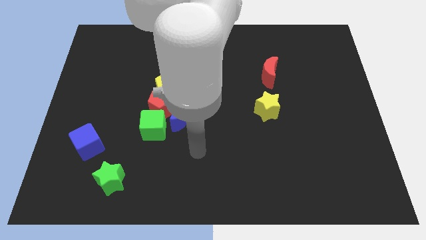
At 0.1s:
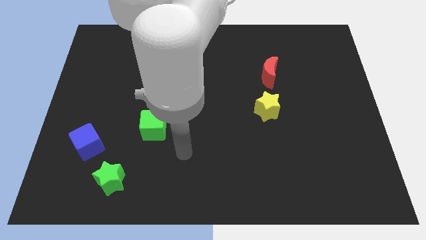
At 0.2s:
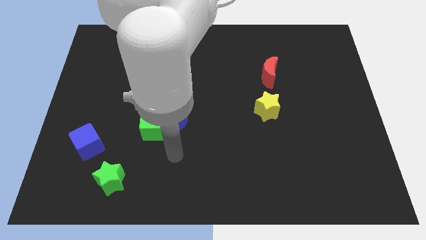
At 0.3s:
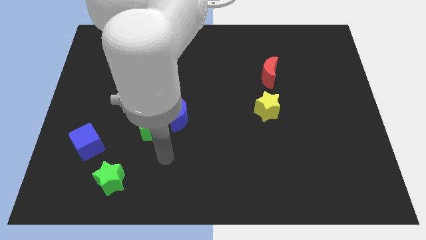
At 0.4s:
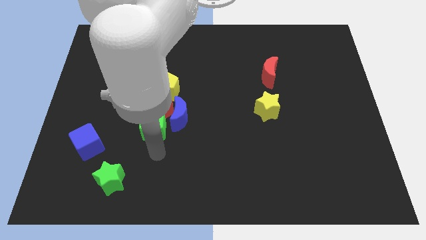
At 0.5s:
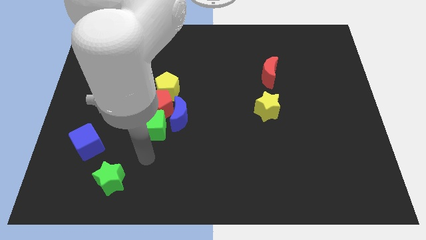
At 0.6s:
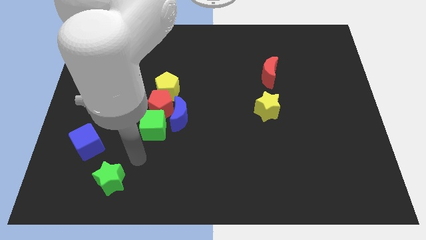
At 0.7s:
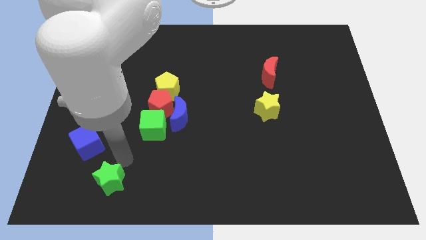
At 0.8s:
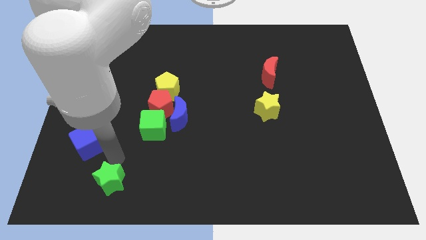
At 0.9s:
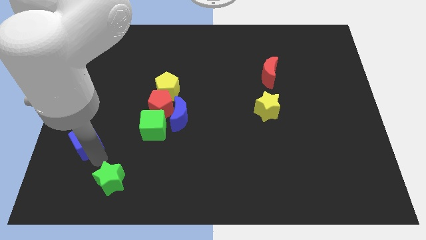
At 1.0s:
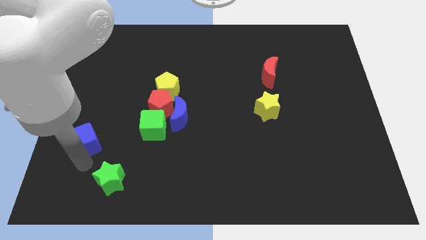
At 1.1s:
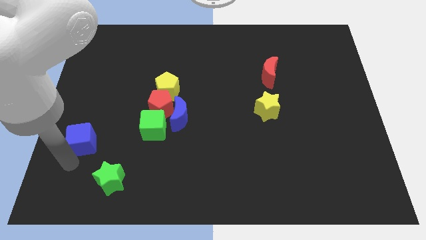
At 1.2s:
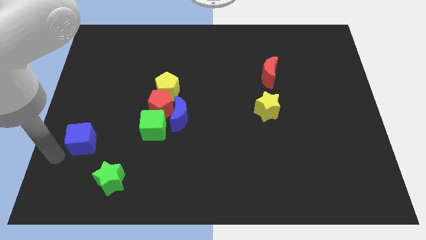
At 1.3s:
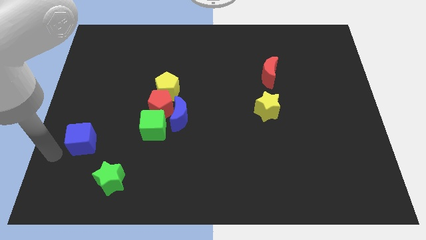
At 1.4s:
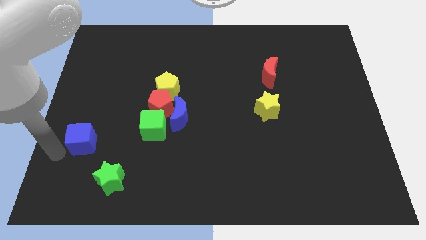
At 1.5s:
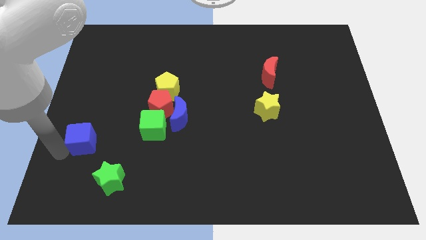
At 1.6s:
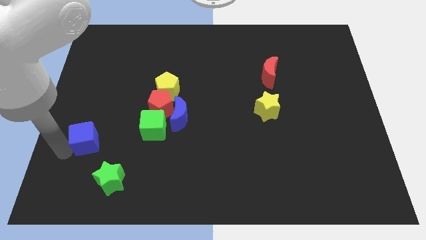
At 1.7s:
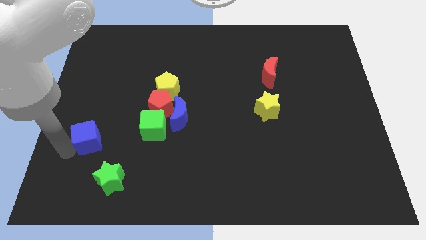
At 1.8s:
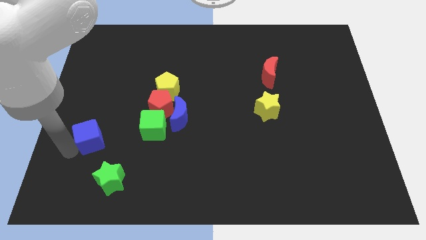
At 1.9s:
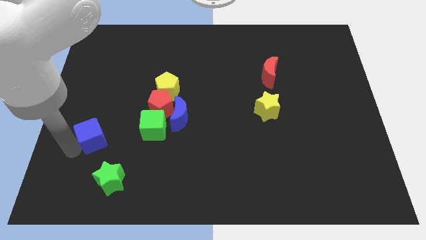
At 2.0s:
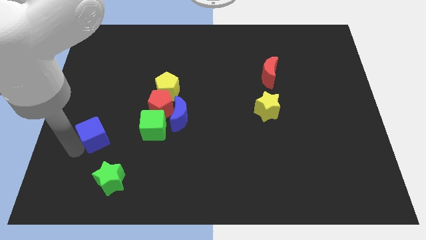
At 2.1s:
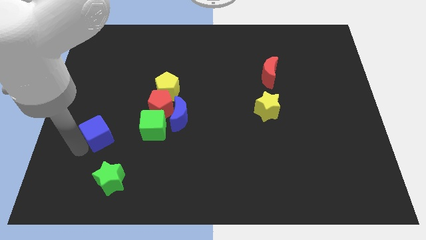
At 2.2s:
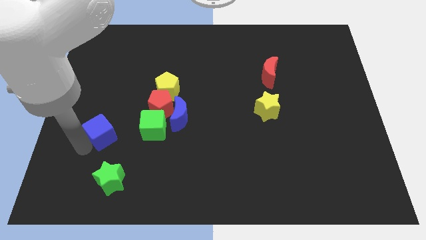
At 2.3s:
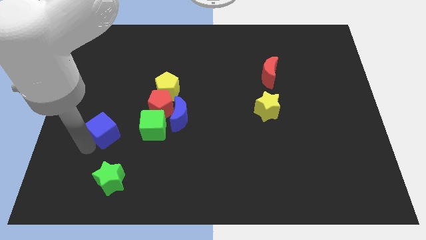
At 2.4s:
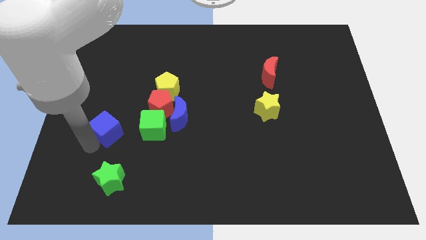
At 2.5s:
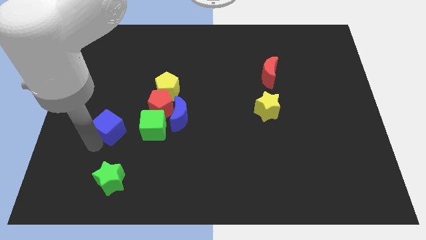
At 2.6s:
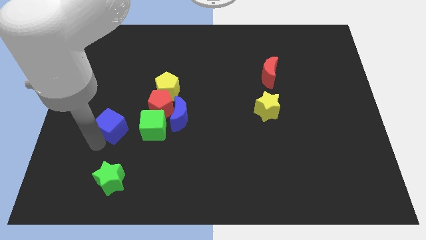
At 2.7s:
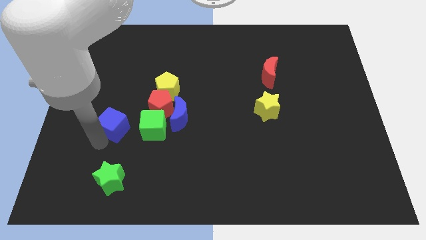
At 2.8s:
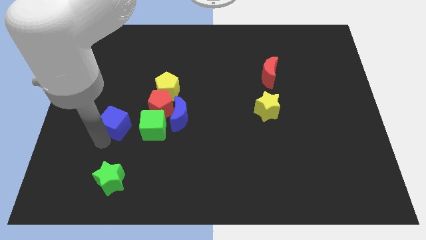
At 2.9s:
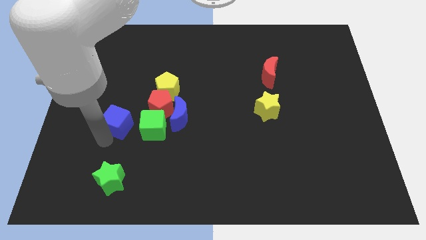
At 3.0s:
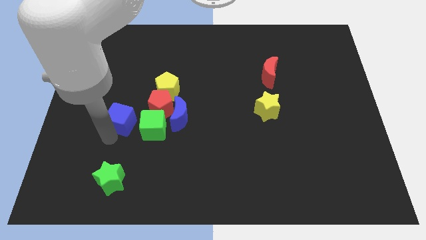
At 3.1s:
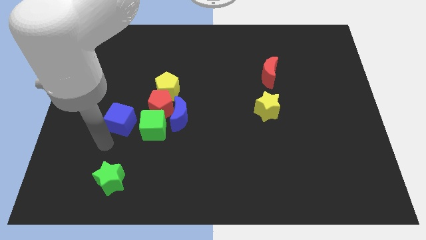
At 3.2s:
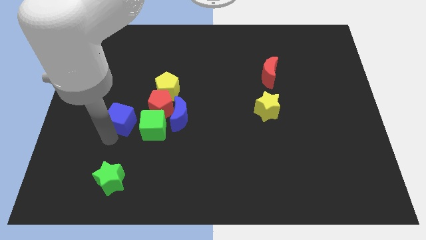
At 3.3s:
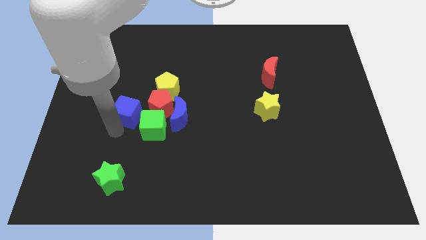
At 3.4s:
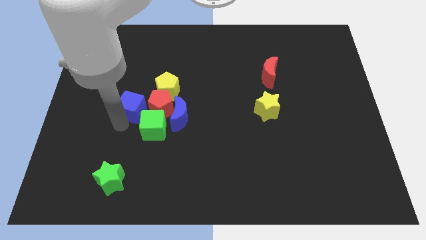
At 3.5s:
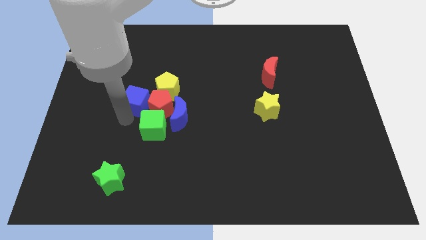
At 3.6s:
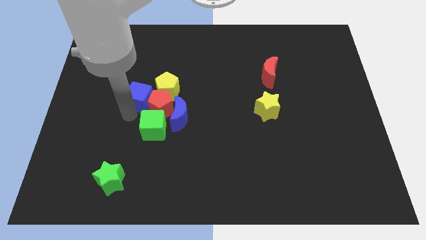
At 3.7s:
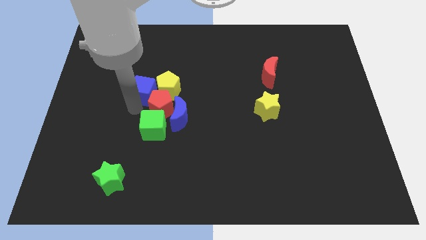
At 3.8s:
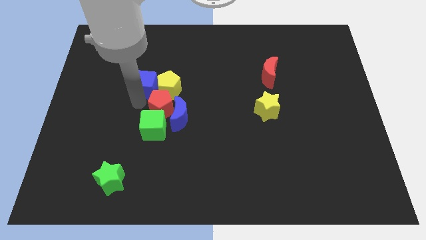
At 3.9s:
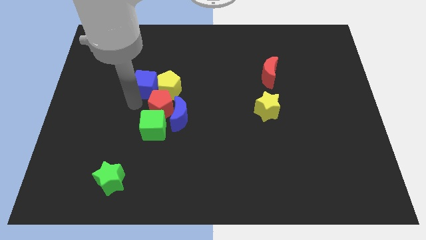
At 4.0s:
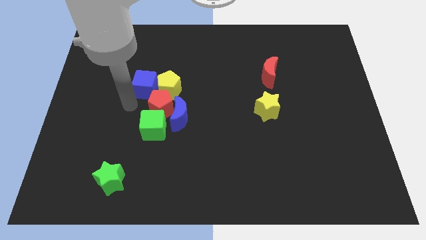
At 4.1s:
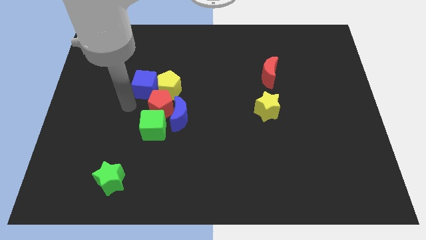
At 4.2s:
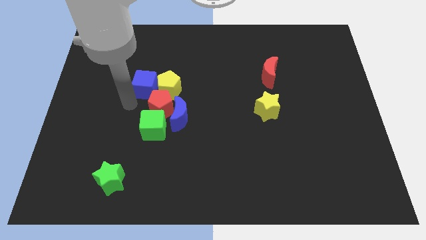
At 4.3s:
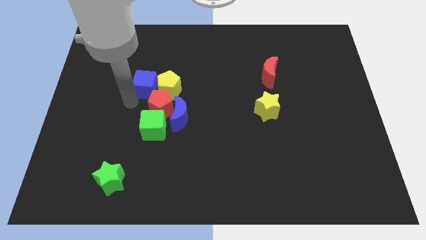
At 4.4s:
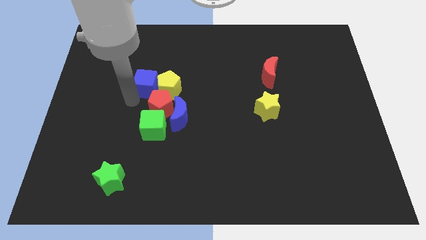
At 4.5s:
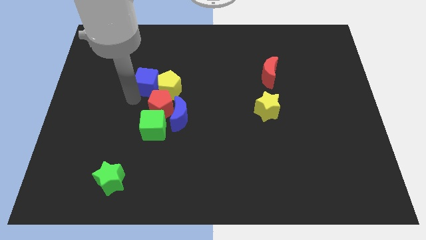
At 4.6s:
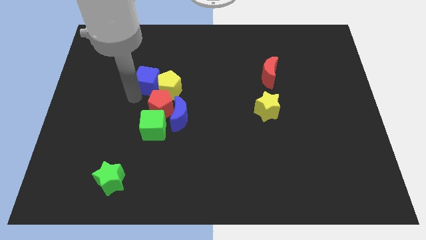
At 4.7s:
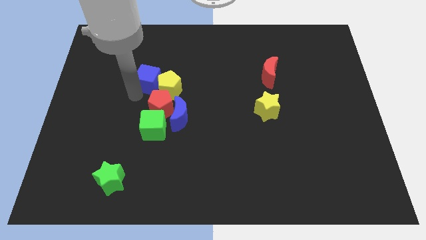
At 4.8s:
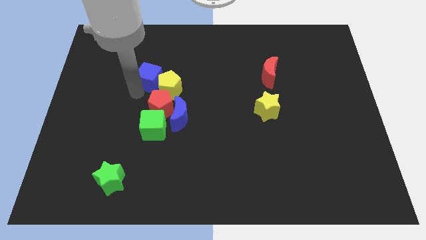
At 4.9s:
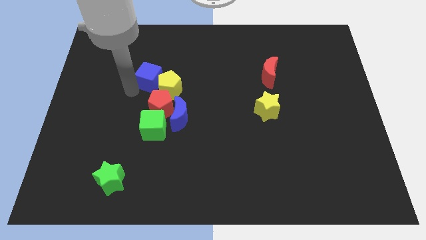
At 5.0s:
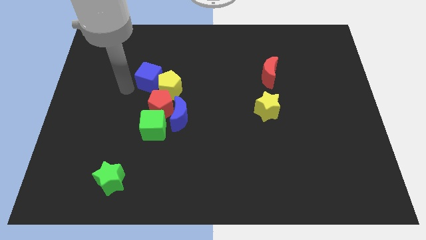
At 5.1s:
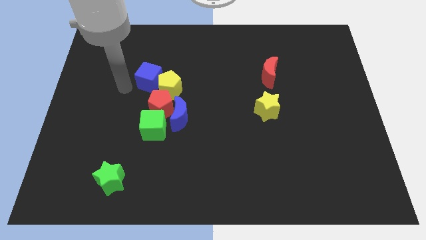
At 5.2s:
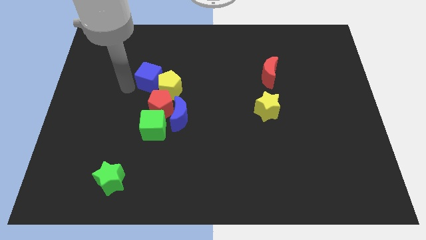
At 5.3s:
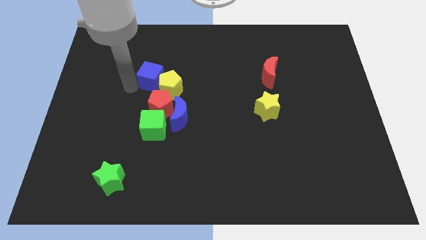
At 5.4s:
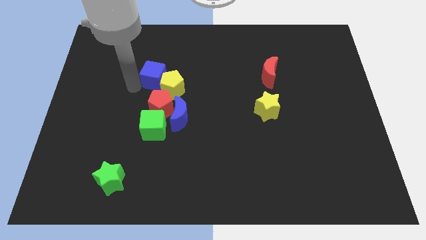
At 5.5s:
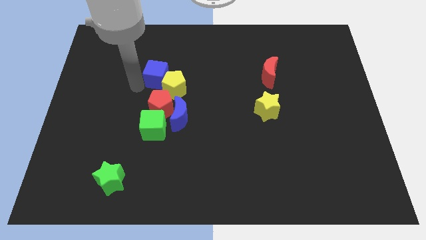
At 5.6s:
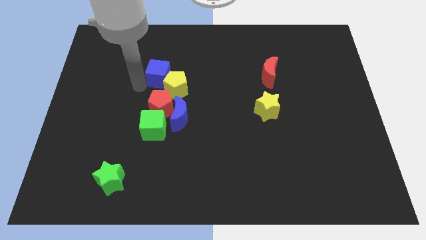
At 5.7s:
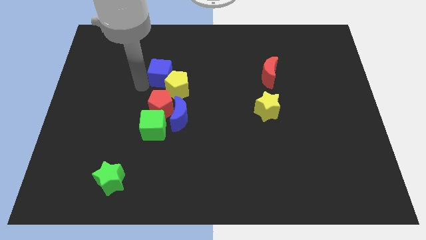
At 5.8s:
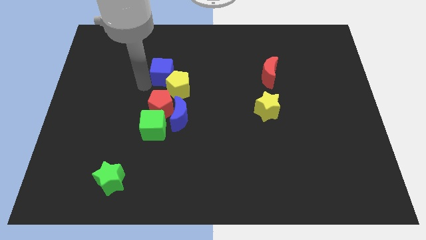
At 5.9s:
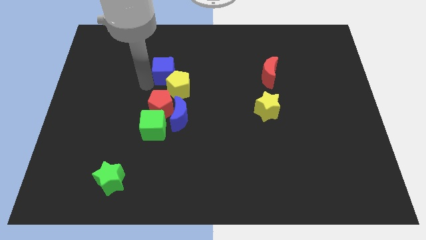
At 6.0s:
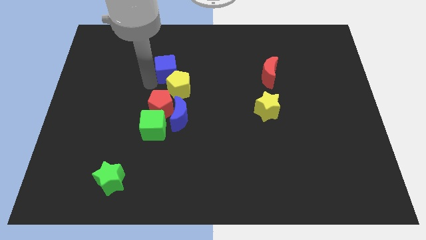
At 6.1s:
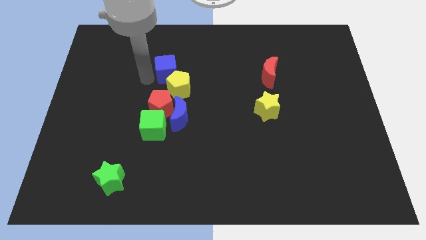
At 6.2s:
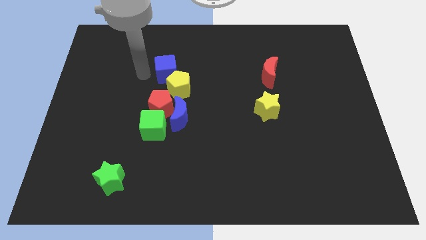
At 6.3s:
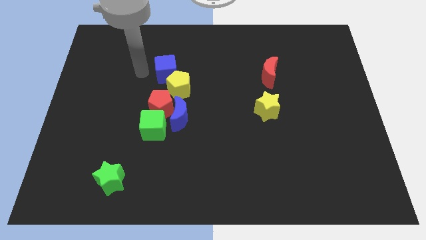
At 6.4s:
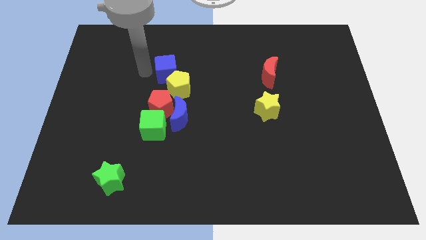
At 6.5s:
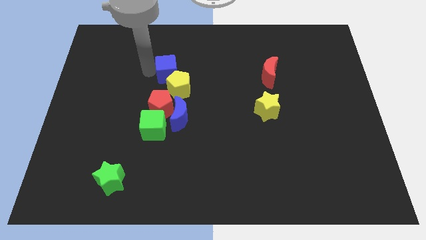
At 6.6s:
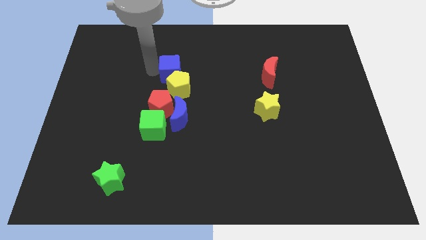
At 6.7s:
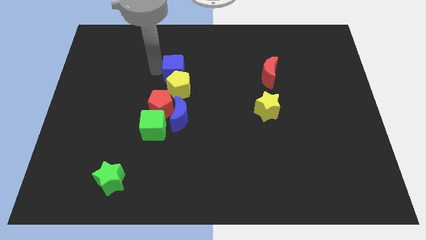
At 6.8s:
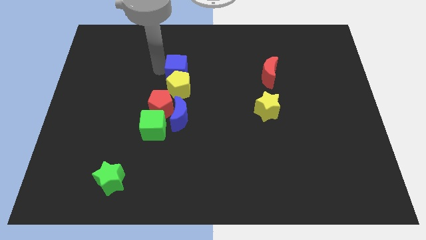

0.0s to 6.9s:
push the blue cube diagonally up and to the right of the yellow pentagon
